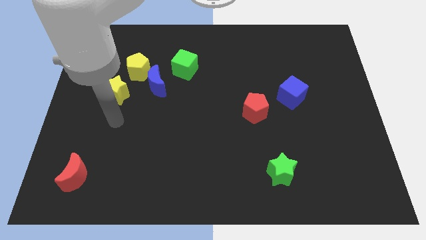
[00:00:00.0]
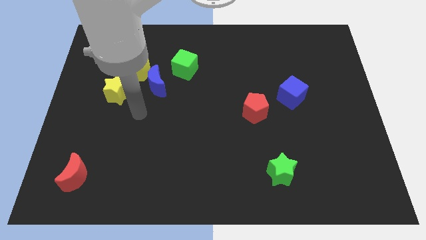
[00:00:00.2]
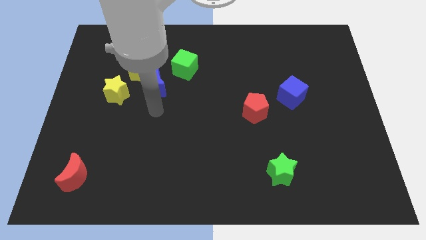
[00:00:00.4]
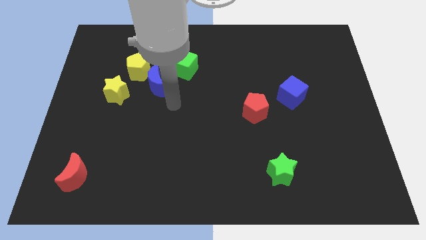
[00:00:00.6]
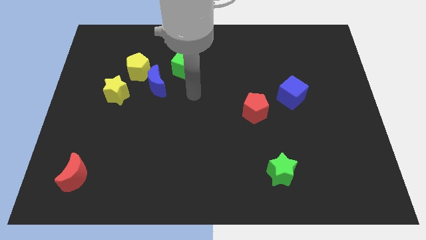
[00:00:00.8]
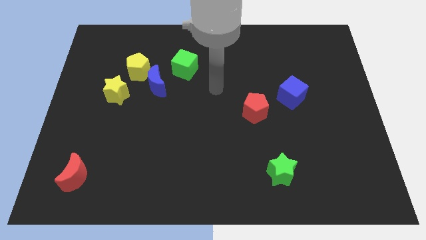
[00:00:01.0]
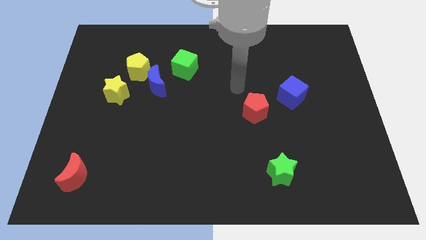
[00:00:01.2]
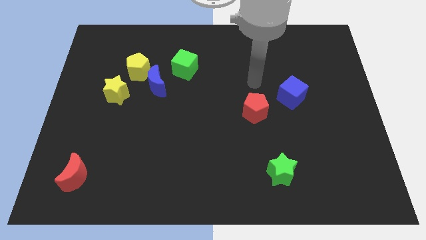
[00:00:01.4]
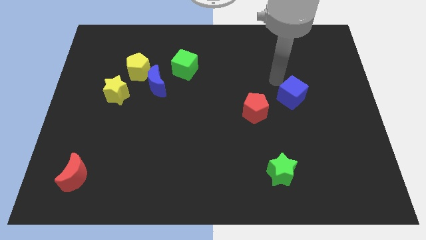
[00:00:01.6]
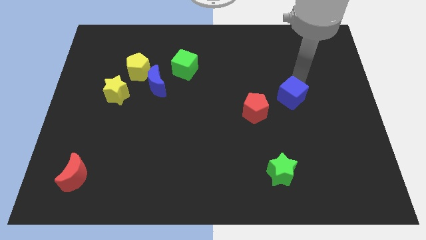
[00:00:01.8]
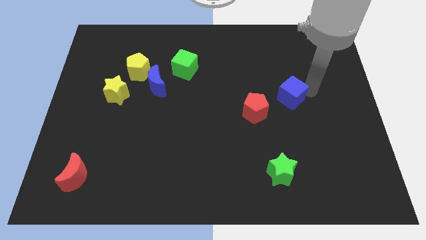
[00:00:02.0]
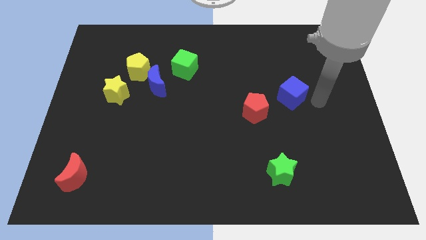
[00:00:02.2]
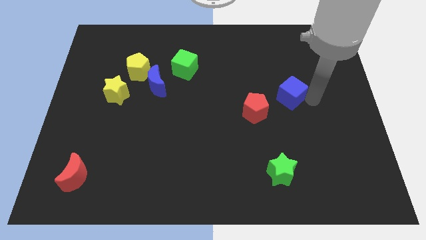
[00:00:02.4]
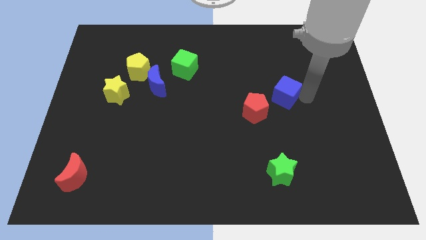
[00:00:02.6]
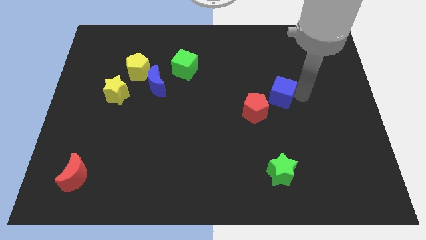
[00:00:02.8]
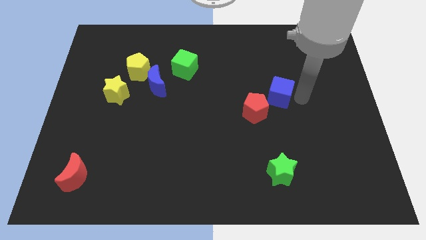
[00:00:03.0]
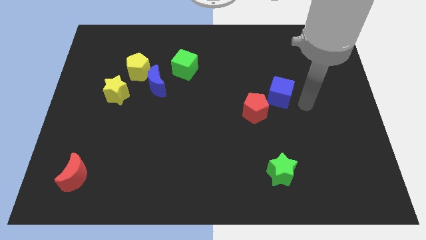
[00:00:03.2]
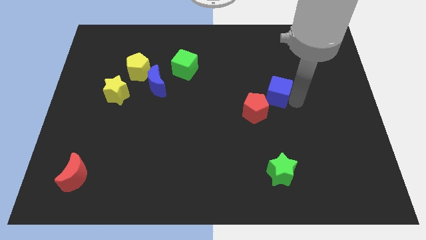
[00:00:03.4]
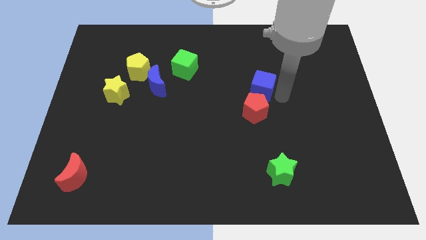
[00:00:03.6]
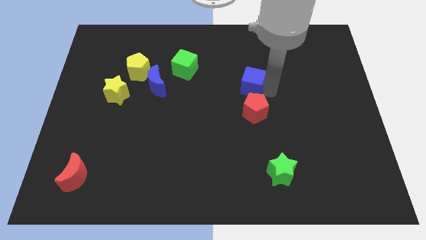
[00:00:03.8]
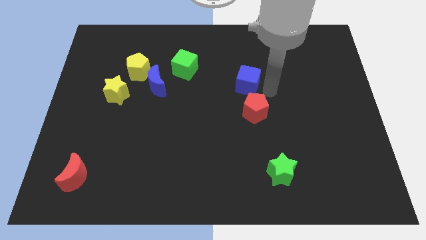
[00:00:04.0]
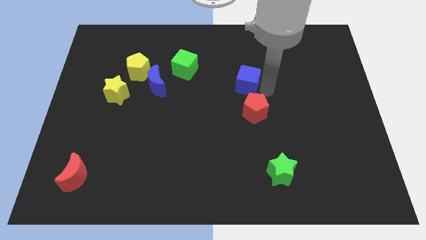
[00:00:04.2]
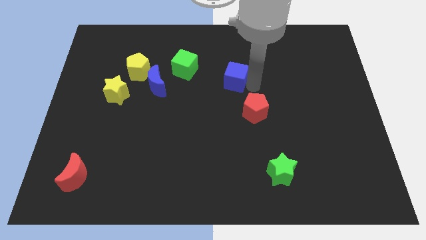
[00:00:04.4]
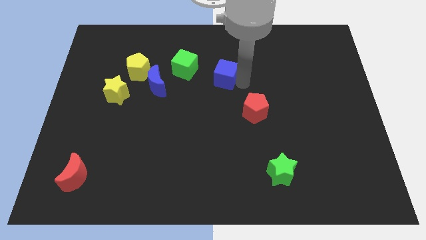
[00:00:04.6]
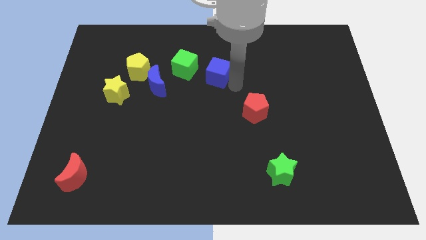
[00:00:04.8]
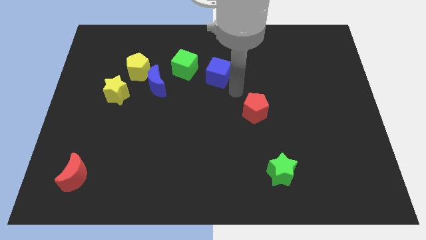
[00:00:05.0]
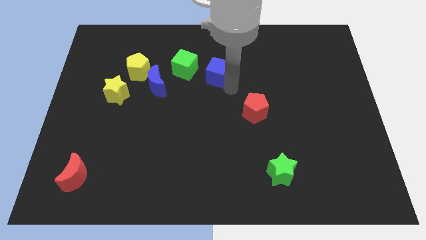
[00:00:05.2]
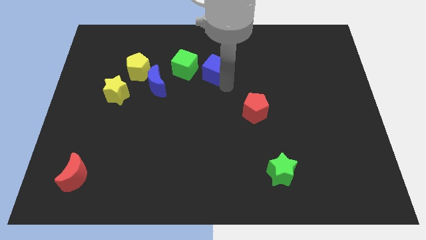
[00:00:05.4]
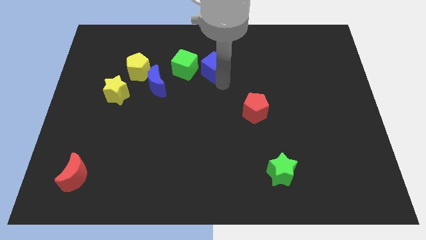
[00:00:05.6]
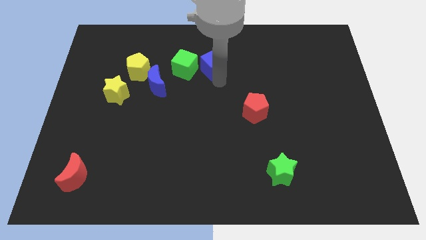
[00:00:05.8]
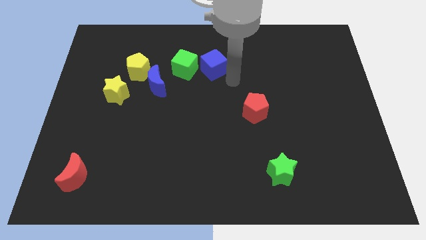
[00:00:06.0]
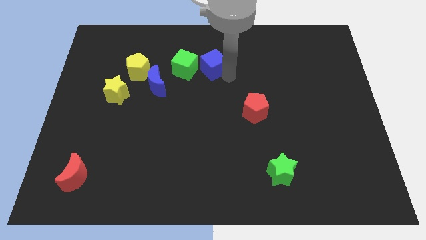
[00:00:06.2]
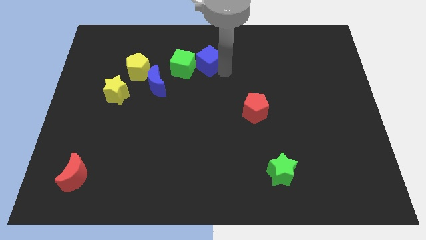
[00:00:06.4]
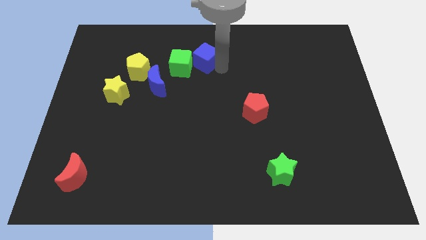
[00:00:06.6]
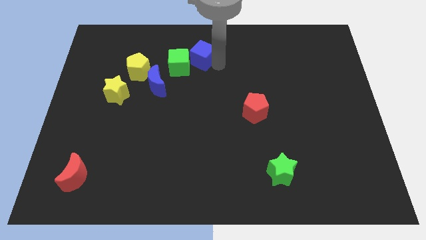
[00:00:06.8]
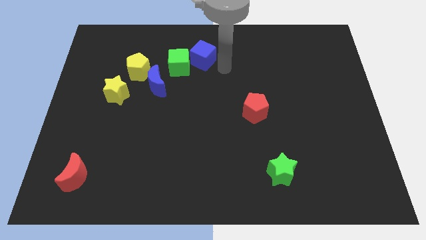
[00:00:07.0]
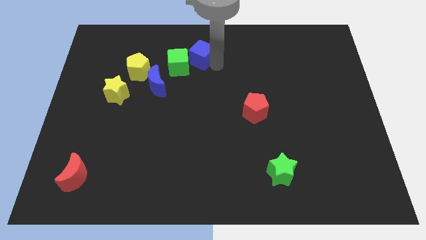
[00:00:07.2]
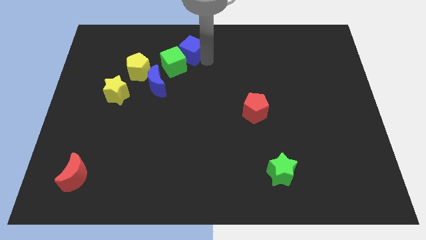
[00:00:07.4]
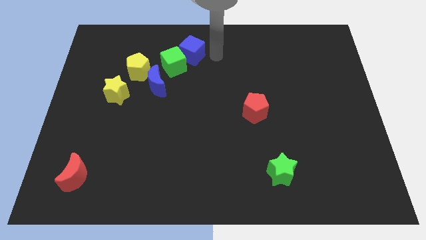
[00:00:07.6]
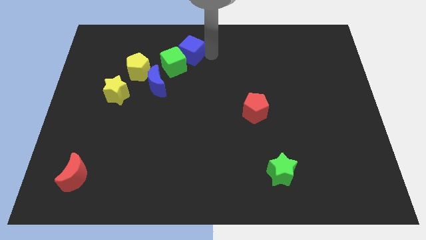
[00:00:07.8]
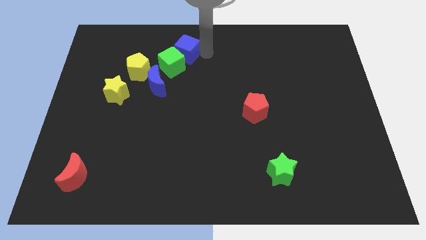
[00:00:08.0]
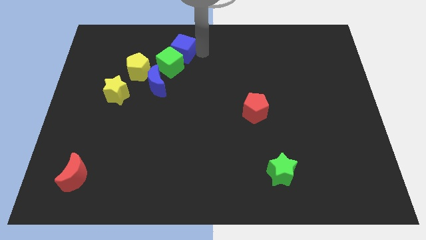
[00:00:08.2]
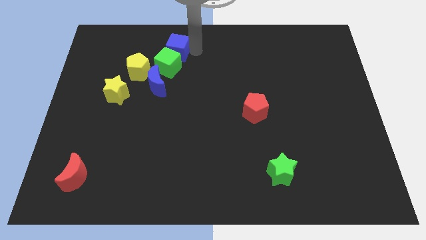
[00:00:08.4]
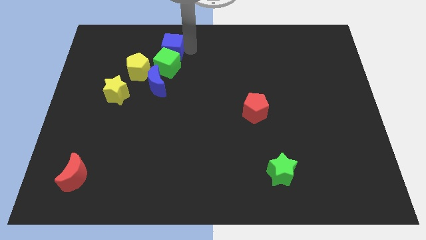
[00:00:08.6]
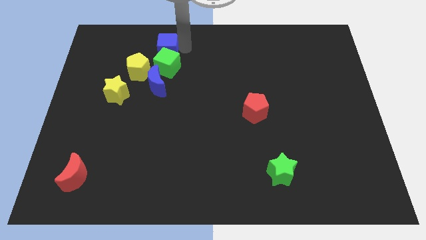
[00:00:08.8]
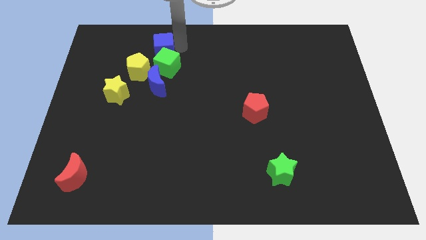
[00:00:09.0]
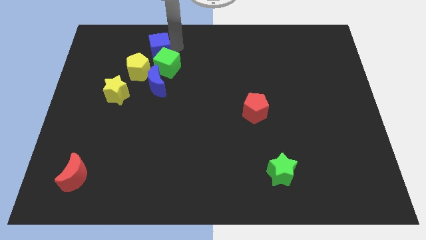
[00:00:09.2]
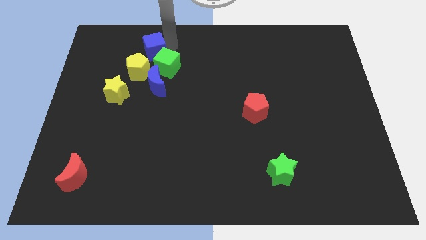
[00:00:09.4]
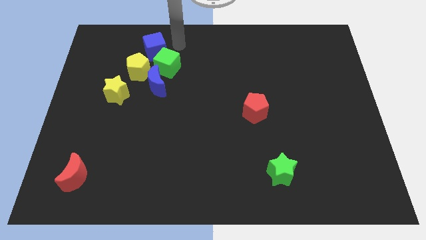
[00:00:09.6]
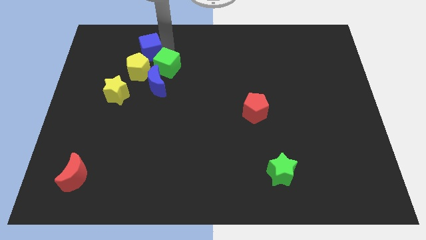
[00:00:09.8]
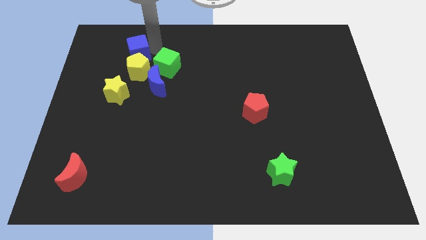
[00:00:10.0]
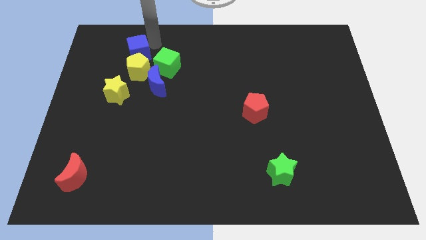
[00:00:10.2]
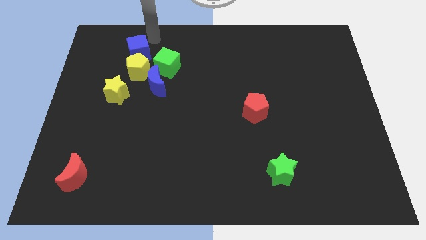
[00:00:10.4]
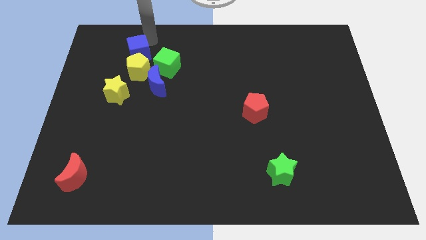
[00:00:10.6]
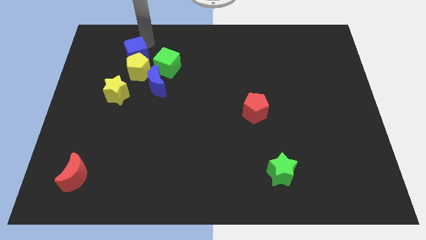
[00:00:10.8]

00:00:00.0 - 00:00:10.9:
push the blue cube diagonally up and to the left of the blue moon

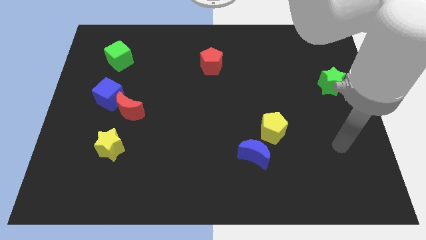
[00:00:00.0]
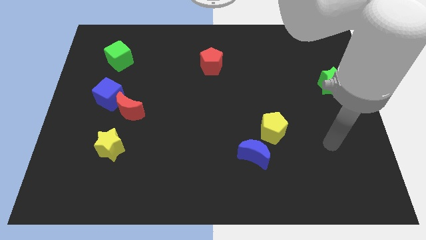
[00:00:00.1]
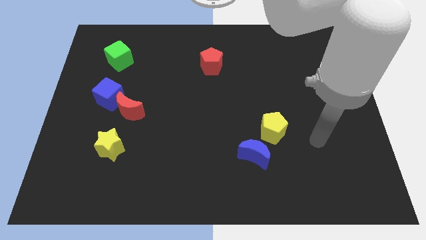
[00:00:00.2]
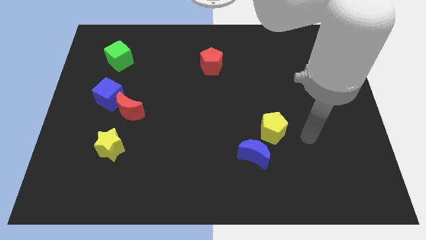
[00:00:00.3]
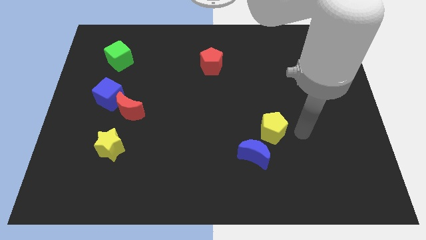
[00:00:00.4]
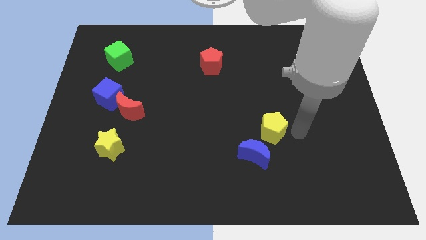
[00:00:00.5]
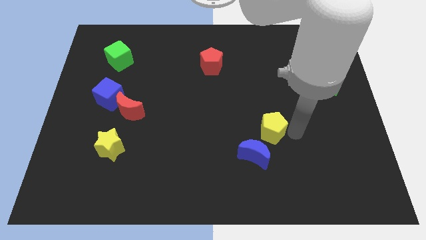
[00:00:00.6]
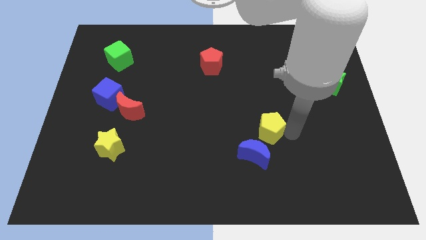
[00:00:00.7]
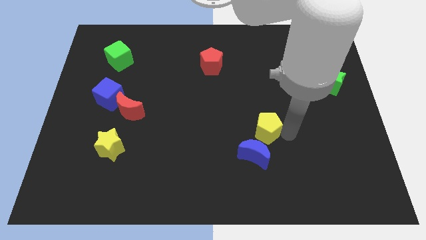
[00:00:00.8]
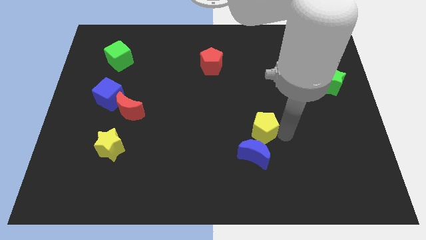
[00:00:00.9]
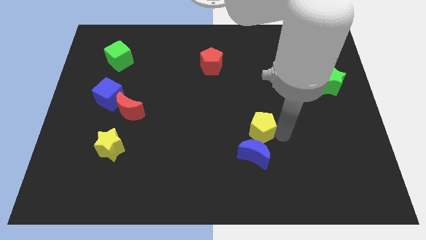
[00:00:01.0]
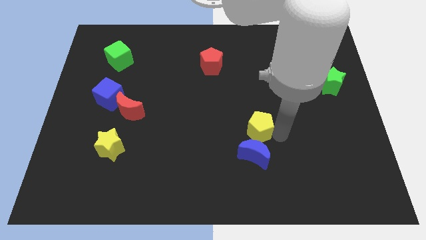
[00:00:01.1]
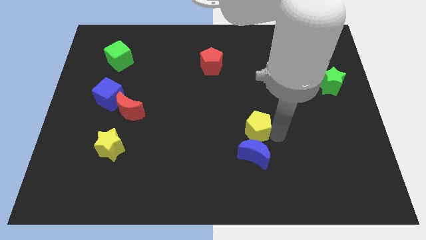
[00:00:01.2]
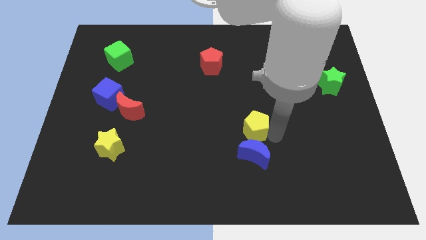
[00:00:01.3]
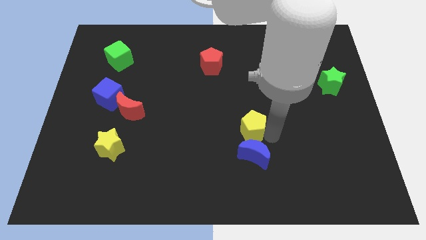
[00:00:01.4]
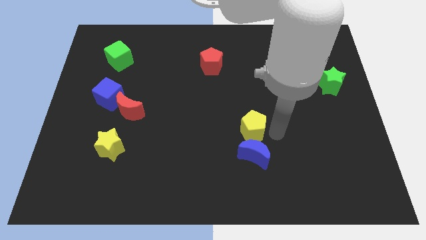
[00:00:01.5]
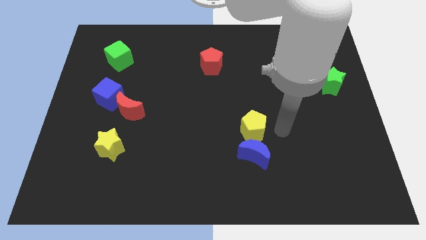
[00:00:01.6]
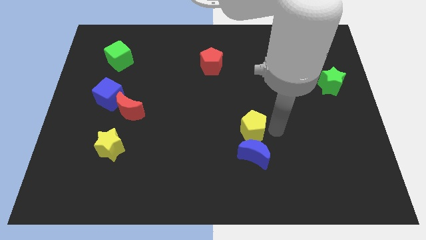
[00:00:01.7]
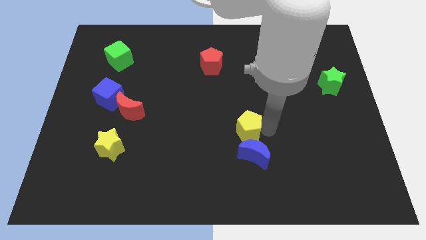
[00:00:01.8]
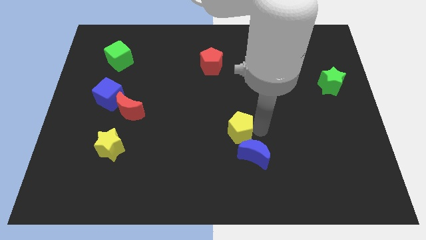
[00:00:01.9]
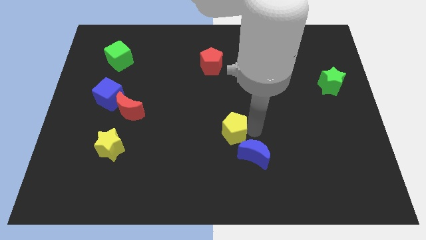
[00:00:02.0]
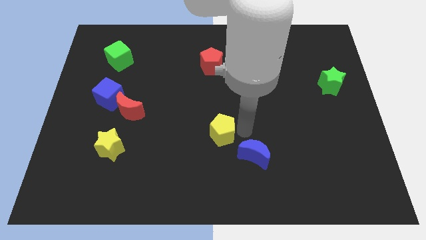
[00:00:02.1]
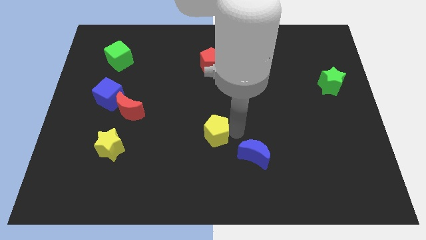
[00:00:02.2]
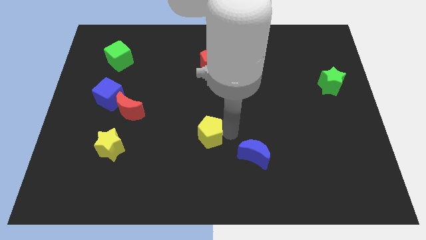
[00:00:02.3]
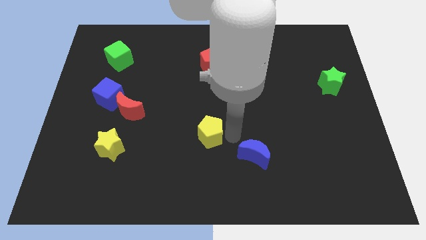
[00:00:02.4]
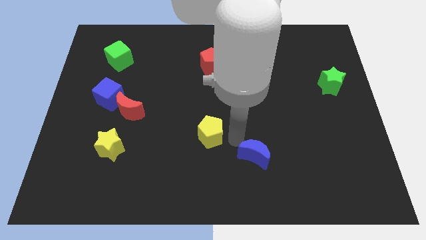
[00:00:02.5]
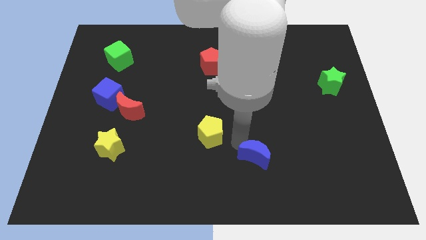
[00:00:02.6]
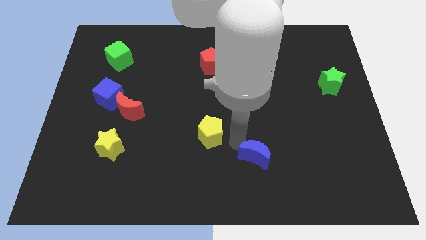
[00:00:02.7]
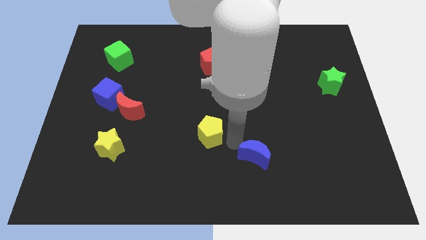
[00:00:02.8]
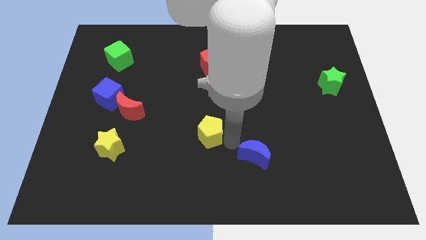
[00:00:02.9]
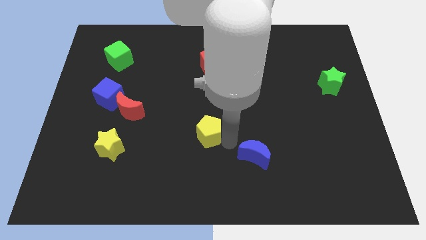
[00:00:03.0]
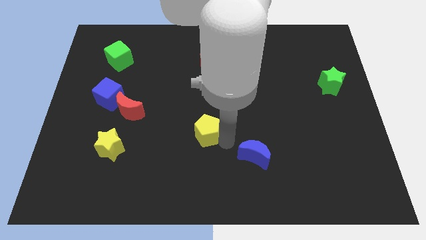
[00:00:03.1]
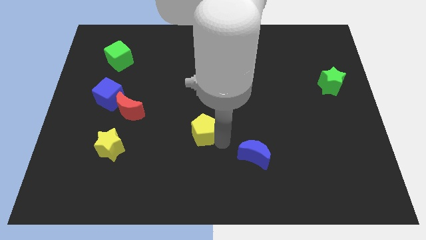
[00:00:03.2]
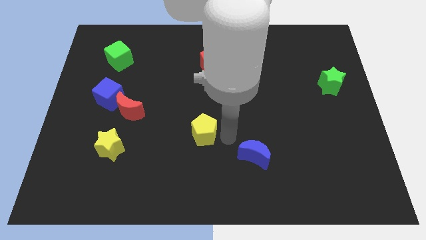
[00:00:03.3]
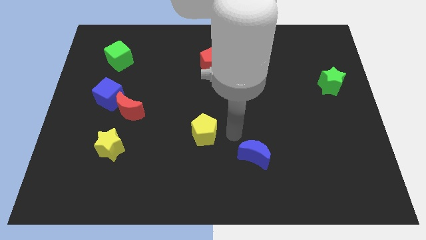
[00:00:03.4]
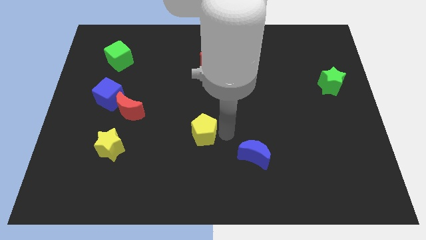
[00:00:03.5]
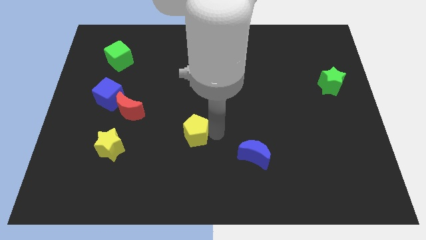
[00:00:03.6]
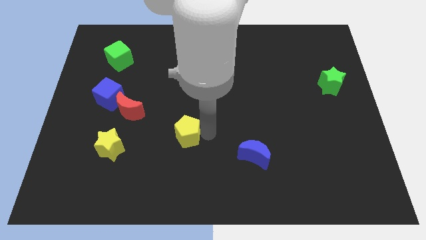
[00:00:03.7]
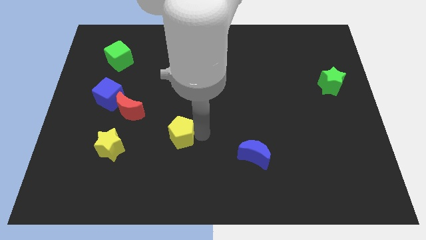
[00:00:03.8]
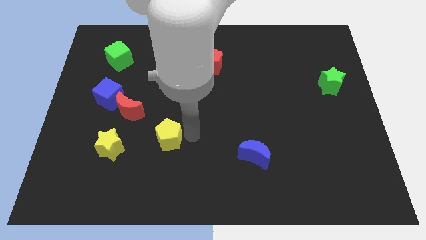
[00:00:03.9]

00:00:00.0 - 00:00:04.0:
move the yellow pentagon to the bottom right side of the red moon
